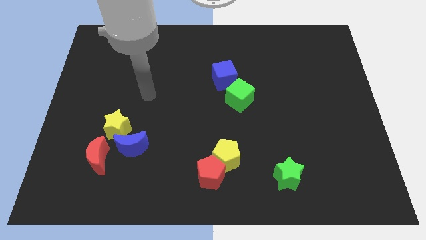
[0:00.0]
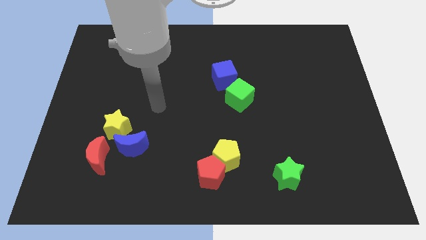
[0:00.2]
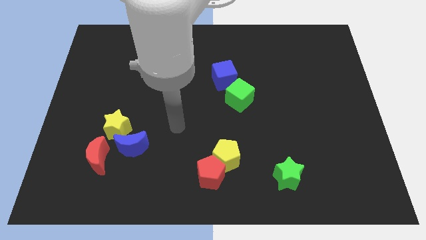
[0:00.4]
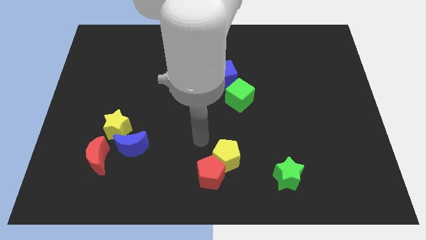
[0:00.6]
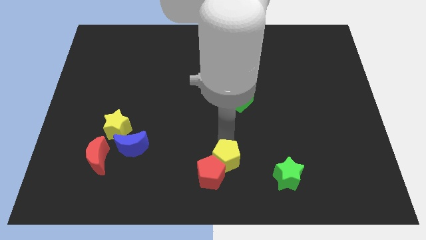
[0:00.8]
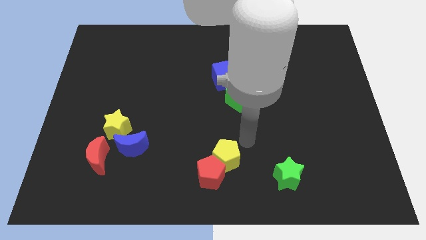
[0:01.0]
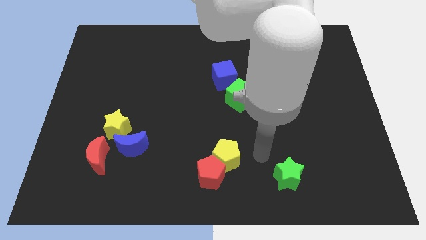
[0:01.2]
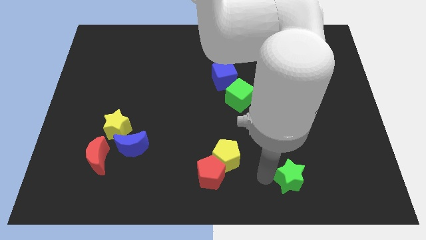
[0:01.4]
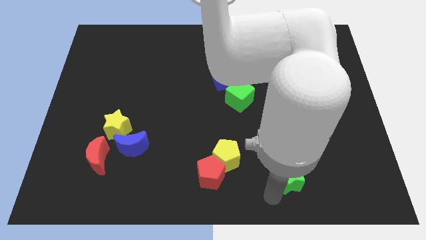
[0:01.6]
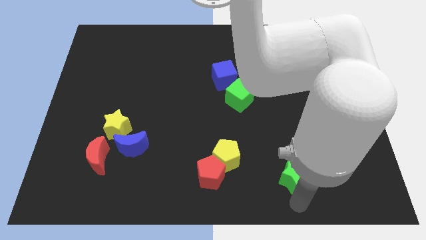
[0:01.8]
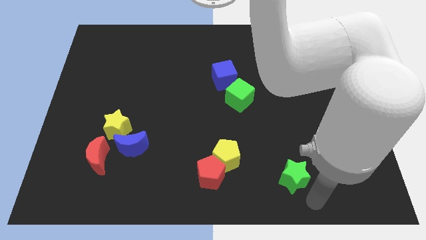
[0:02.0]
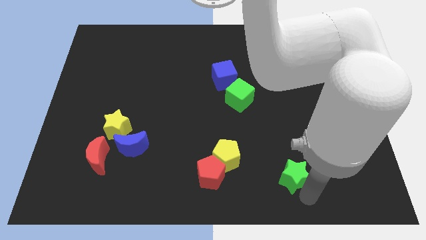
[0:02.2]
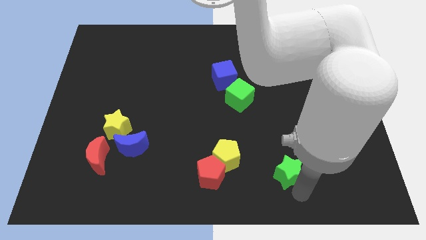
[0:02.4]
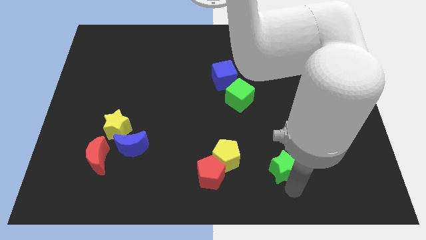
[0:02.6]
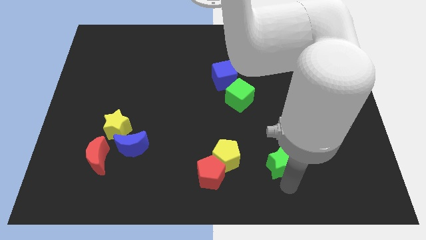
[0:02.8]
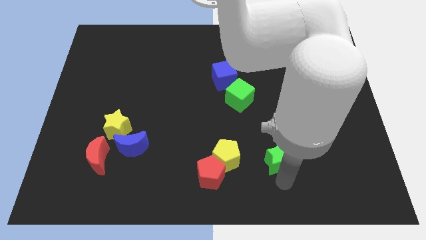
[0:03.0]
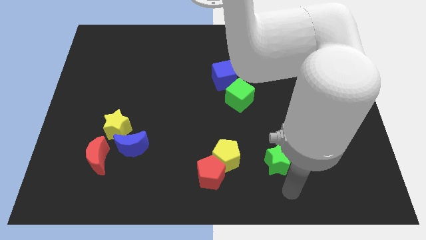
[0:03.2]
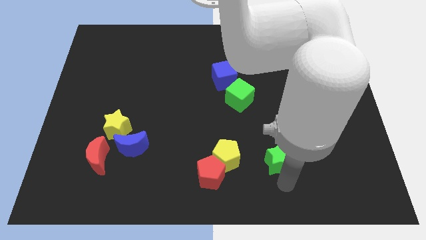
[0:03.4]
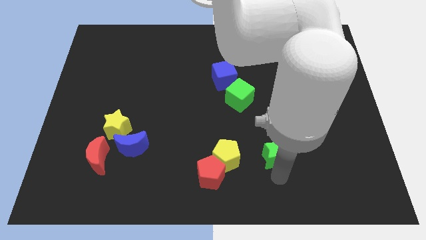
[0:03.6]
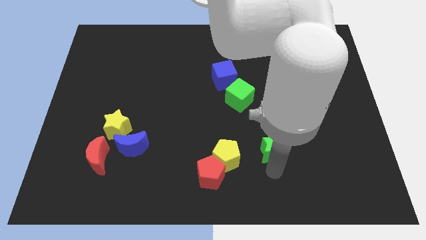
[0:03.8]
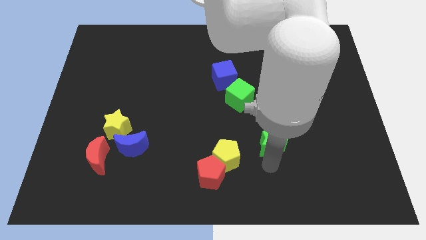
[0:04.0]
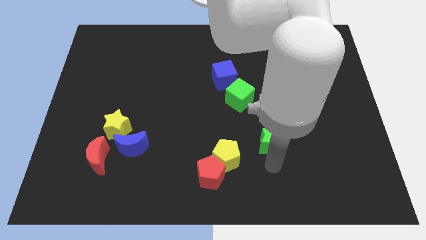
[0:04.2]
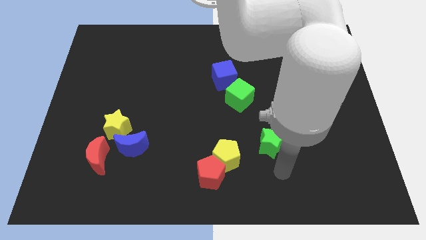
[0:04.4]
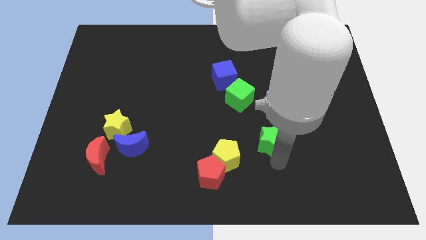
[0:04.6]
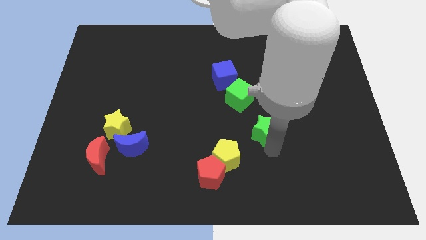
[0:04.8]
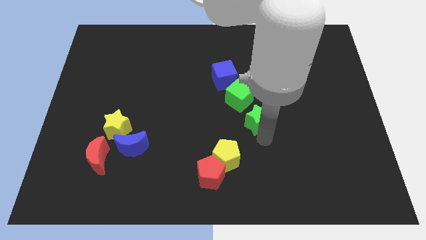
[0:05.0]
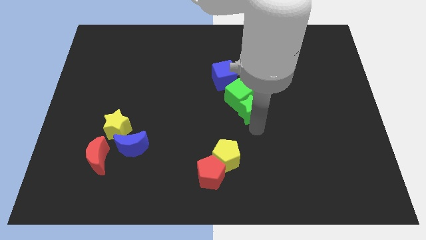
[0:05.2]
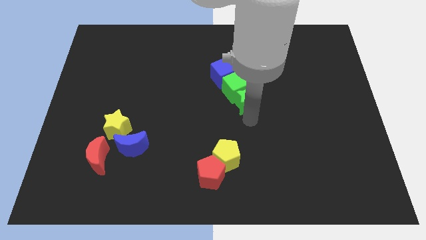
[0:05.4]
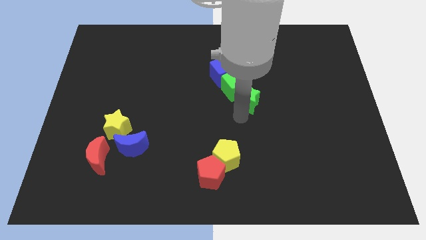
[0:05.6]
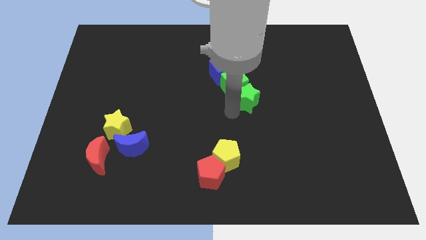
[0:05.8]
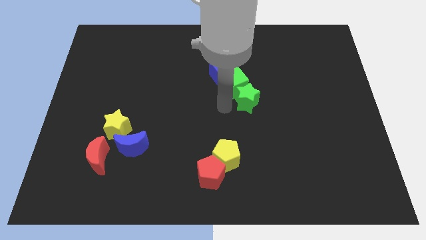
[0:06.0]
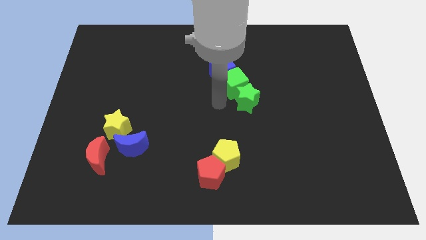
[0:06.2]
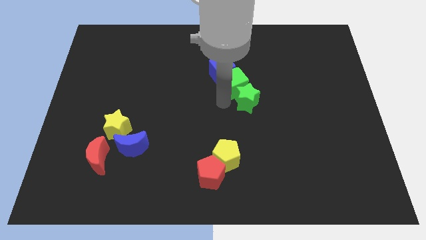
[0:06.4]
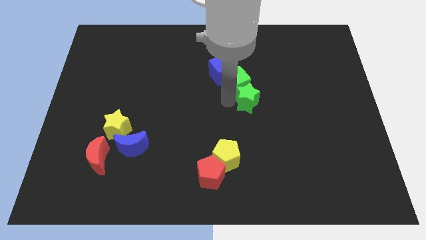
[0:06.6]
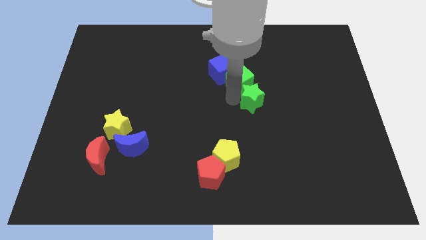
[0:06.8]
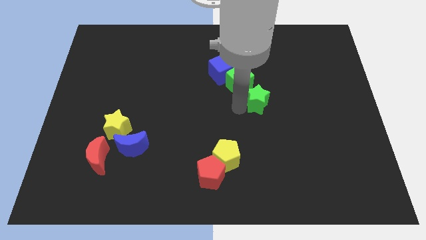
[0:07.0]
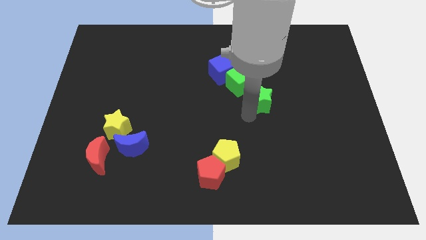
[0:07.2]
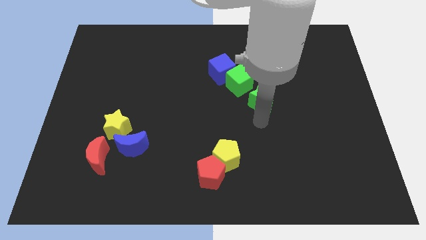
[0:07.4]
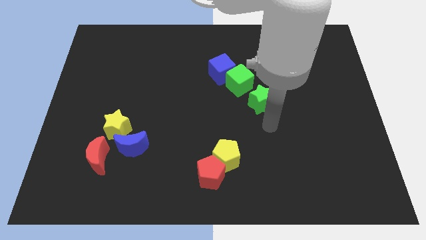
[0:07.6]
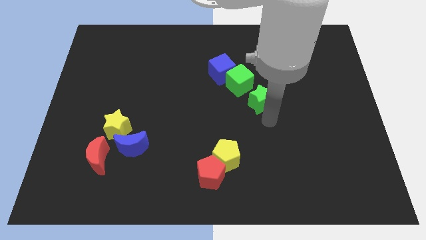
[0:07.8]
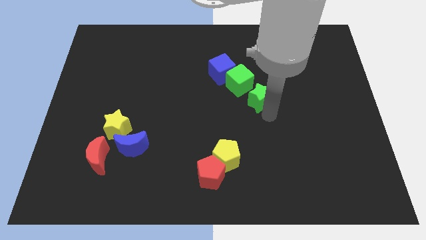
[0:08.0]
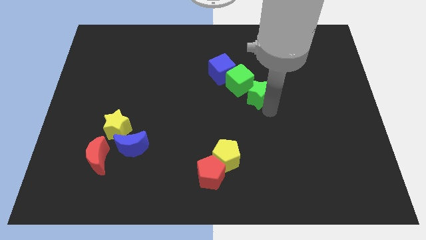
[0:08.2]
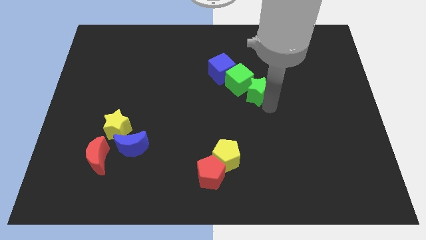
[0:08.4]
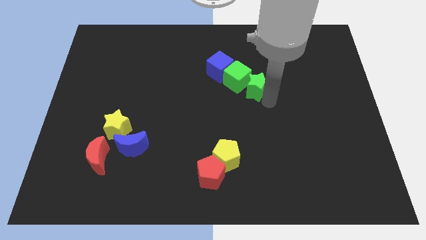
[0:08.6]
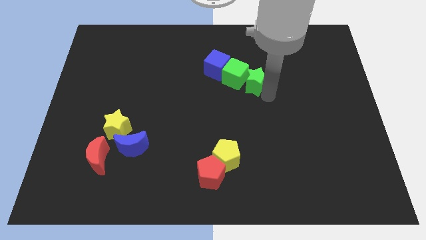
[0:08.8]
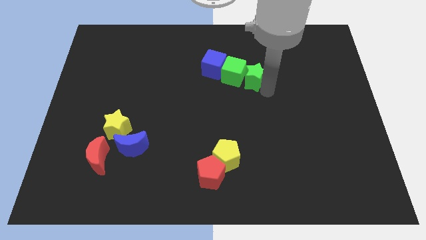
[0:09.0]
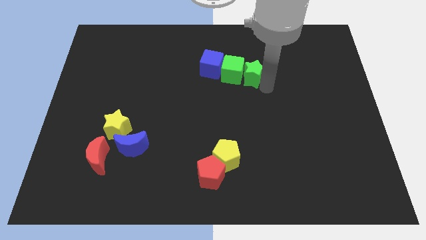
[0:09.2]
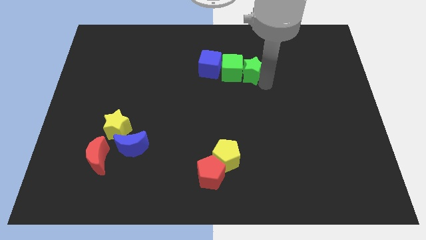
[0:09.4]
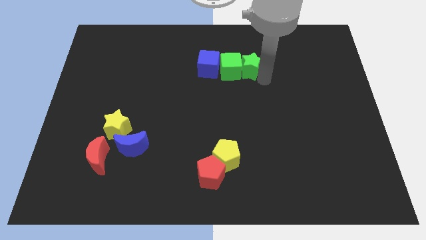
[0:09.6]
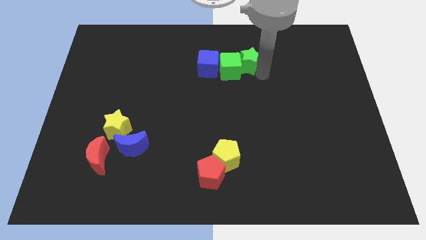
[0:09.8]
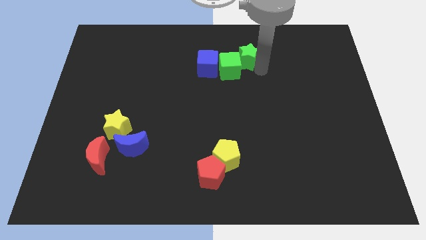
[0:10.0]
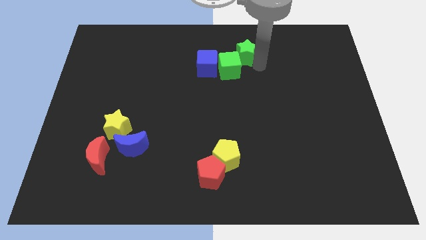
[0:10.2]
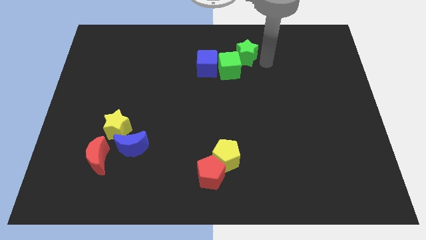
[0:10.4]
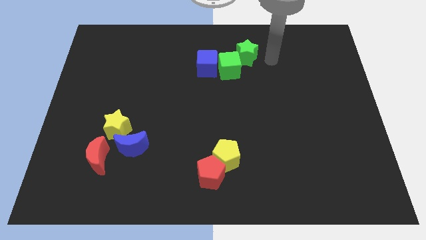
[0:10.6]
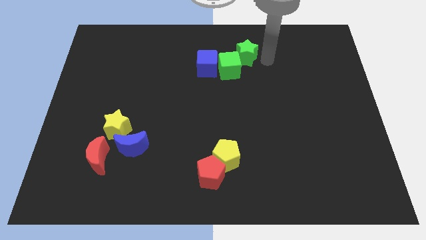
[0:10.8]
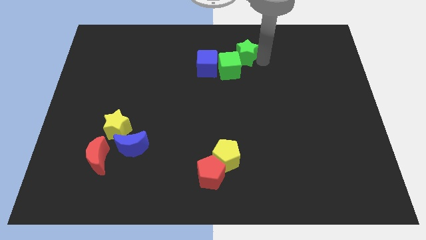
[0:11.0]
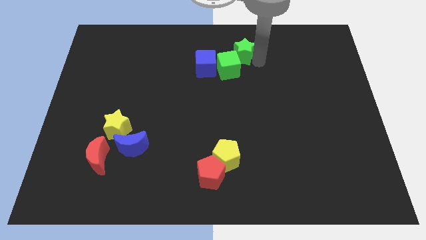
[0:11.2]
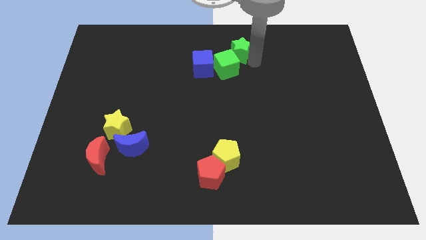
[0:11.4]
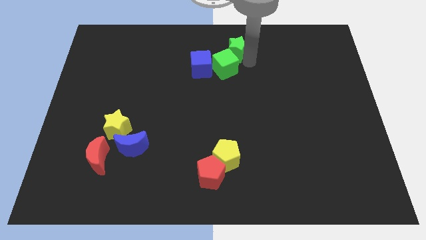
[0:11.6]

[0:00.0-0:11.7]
put the green star to the top side
